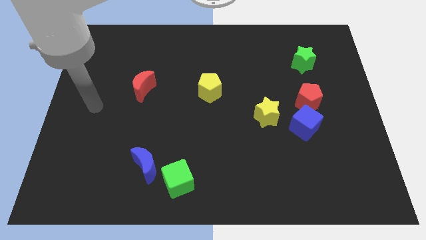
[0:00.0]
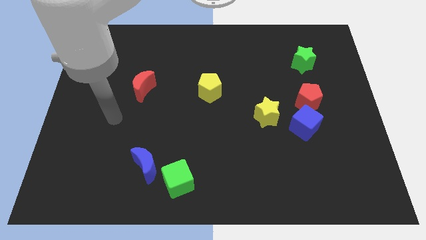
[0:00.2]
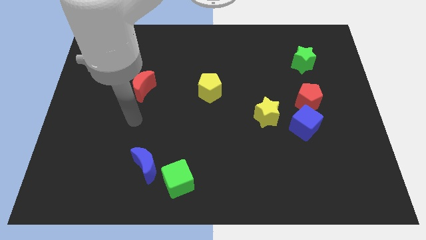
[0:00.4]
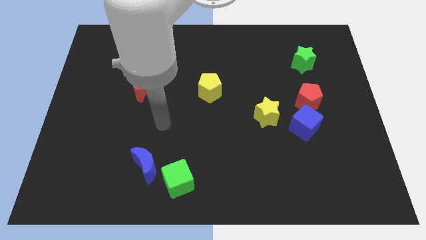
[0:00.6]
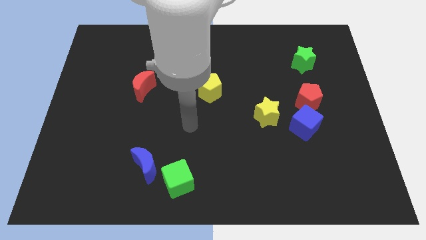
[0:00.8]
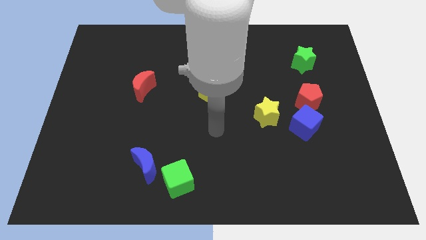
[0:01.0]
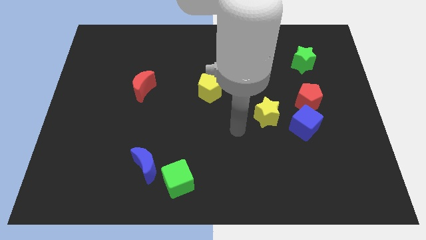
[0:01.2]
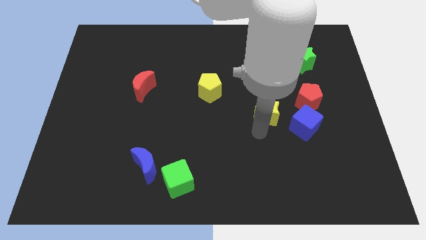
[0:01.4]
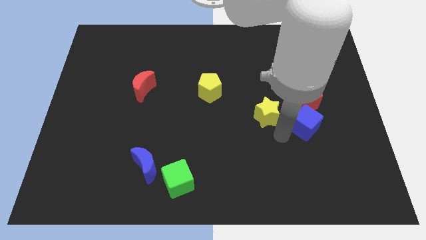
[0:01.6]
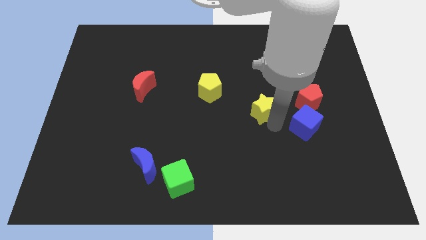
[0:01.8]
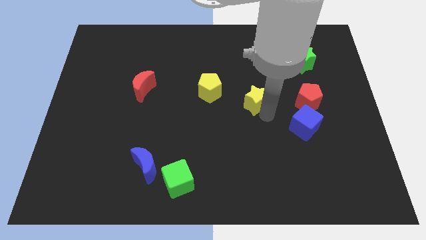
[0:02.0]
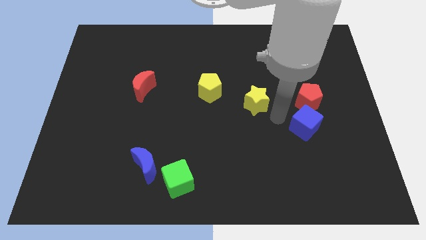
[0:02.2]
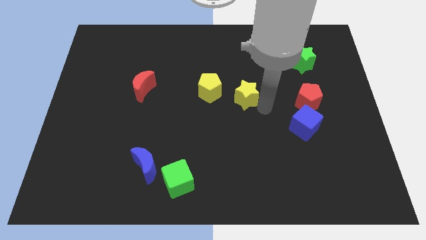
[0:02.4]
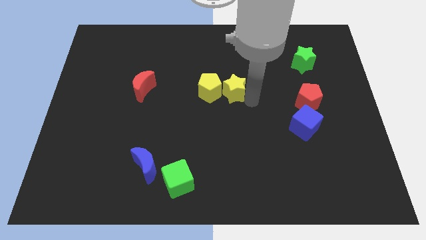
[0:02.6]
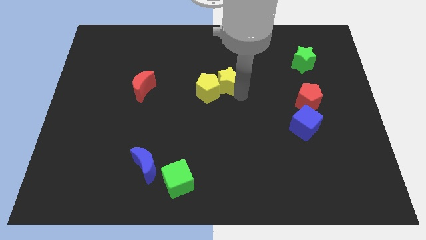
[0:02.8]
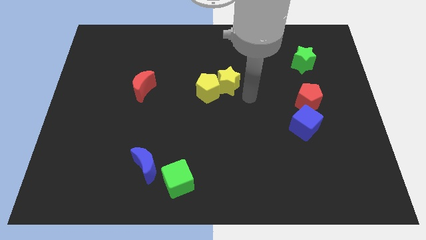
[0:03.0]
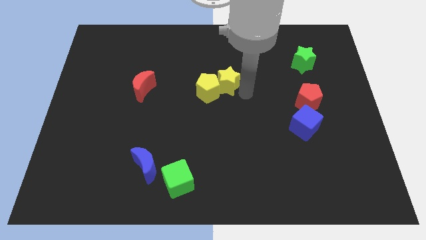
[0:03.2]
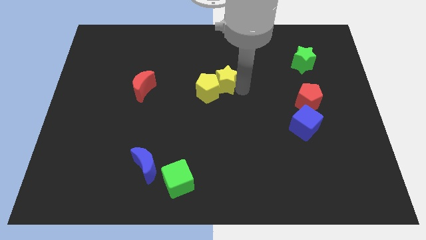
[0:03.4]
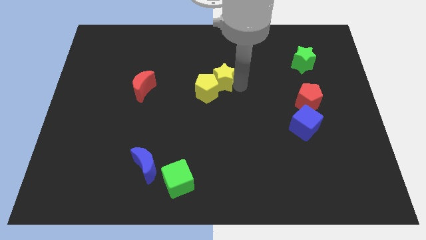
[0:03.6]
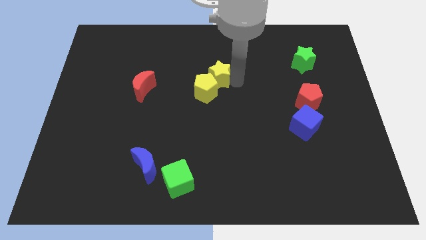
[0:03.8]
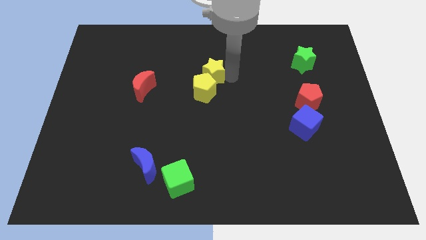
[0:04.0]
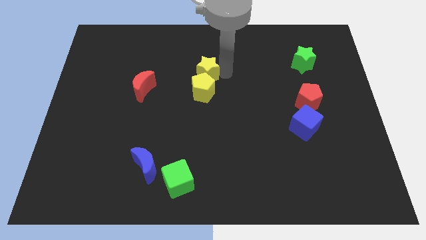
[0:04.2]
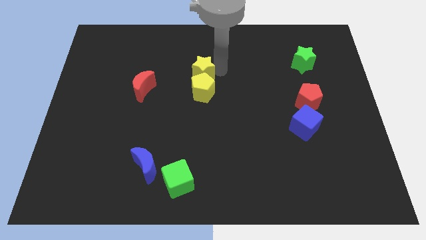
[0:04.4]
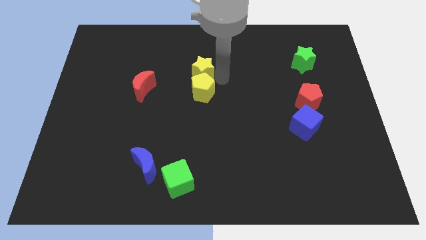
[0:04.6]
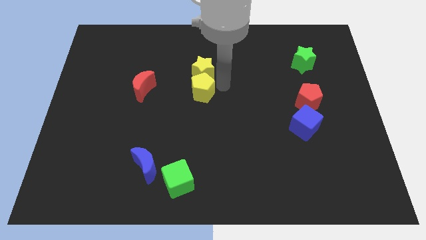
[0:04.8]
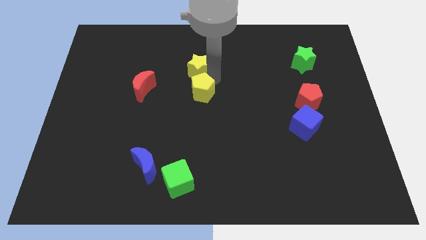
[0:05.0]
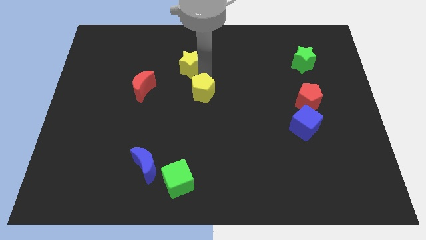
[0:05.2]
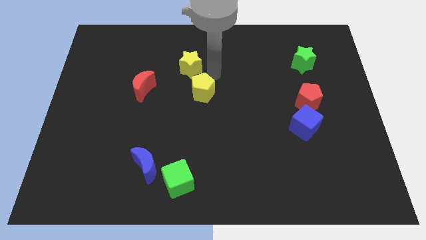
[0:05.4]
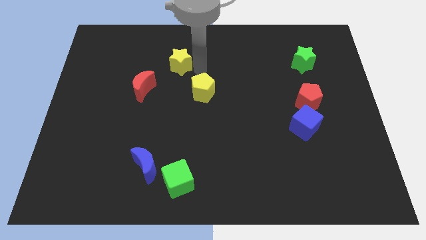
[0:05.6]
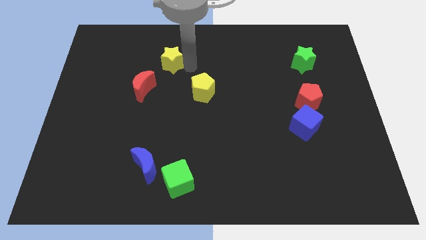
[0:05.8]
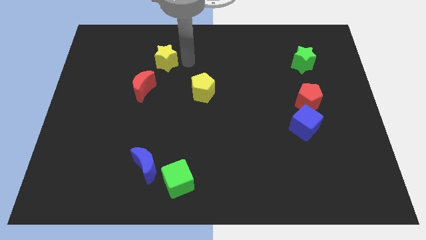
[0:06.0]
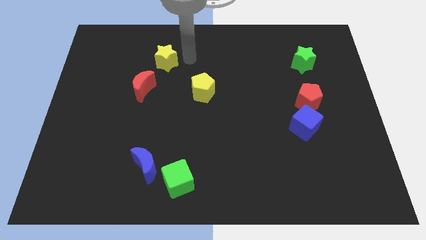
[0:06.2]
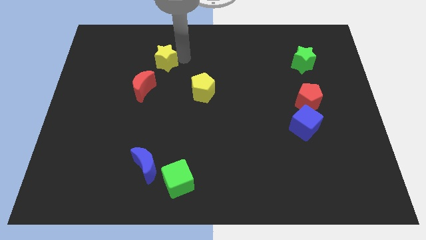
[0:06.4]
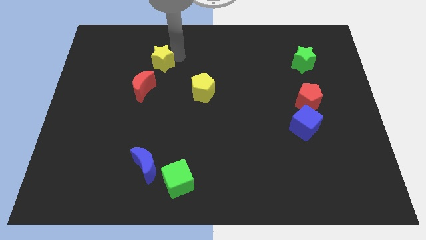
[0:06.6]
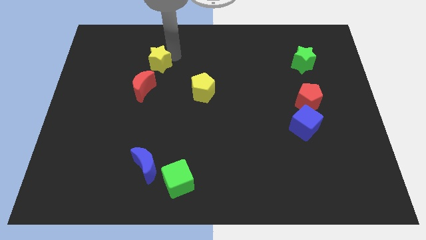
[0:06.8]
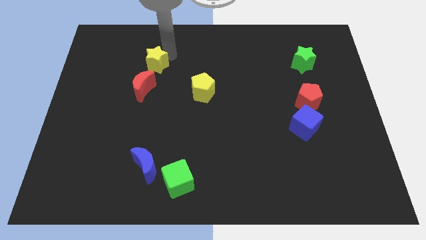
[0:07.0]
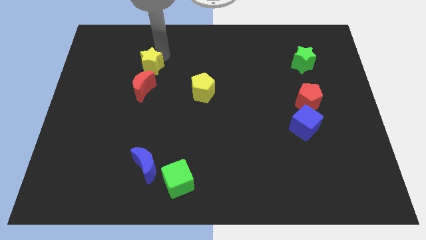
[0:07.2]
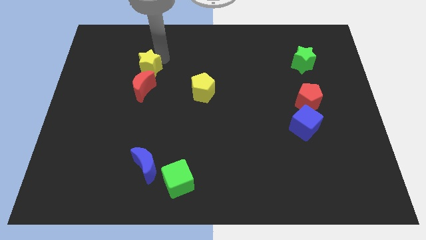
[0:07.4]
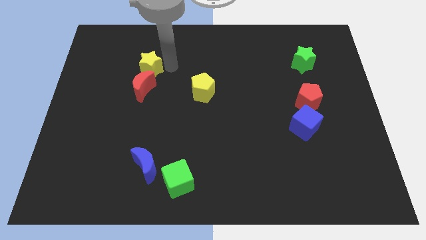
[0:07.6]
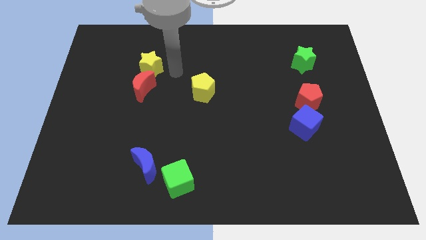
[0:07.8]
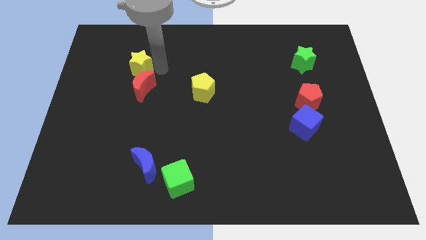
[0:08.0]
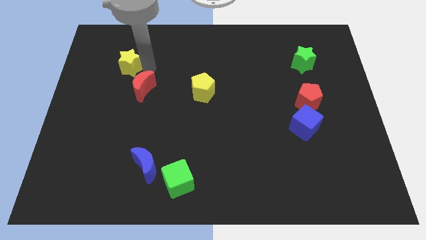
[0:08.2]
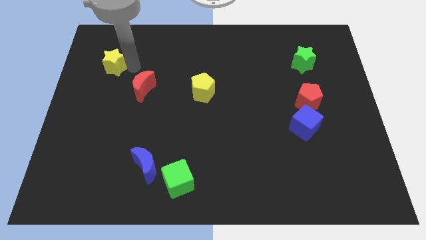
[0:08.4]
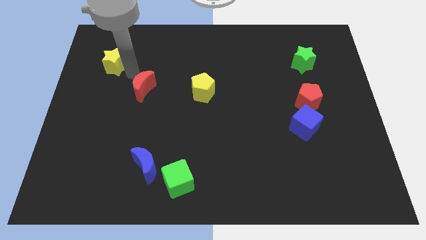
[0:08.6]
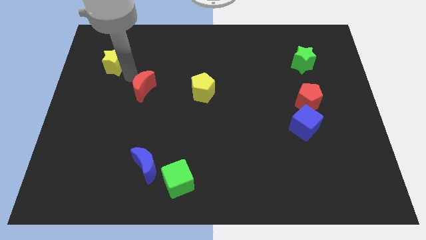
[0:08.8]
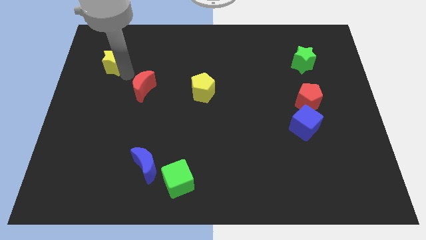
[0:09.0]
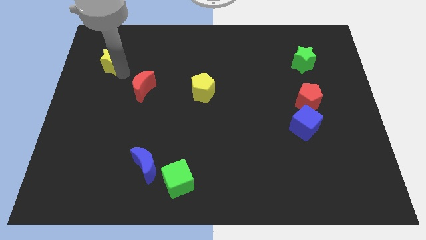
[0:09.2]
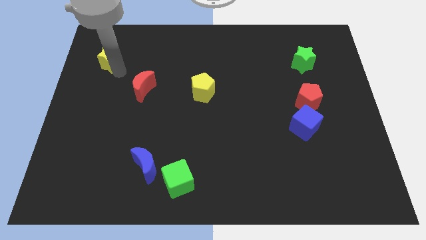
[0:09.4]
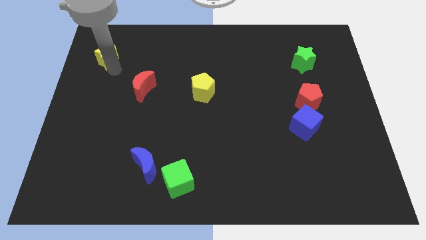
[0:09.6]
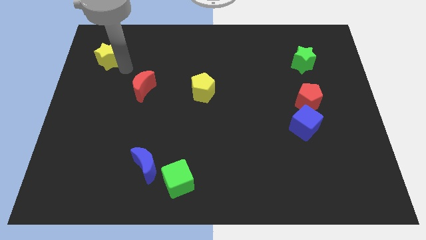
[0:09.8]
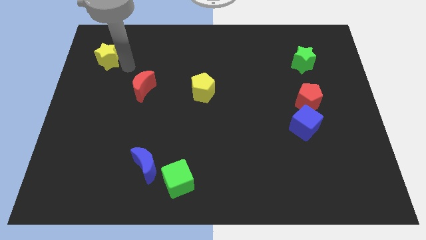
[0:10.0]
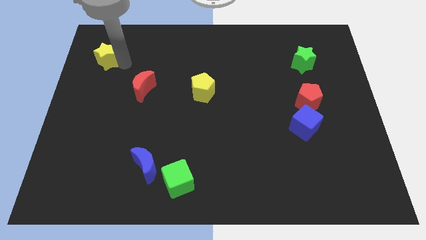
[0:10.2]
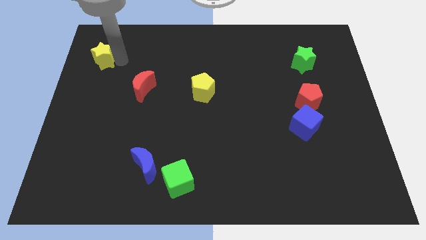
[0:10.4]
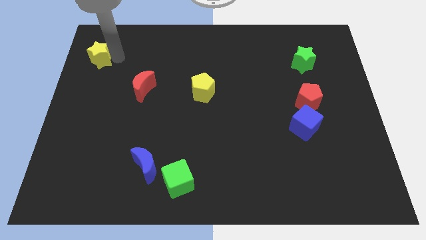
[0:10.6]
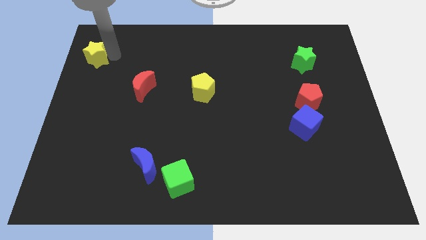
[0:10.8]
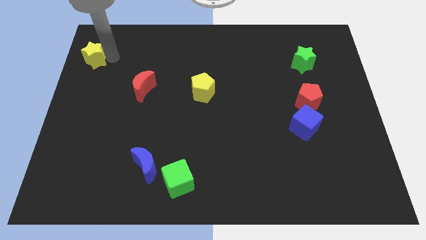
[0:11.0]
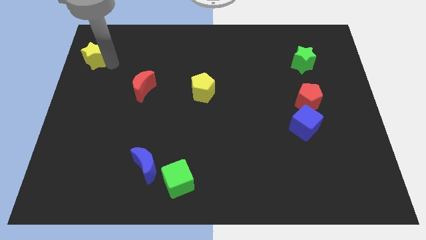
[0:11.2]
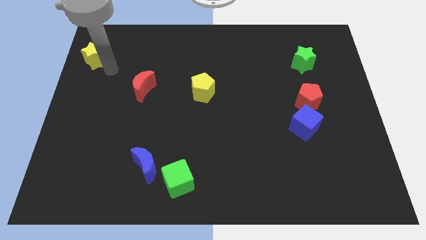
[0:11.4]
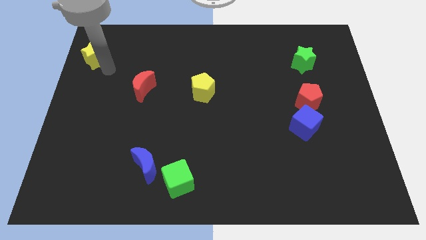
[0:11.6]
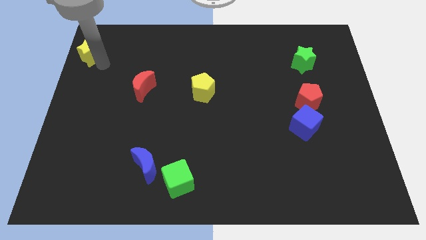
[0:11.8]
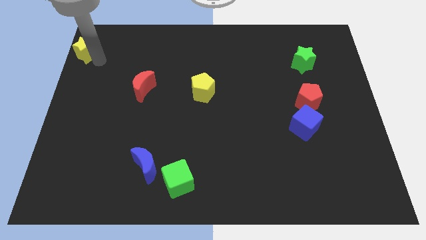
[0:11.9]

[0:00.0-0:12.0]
move the yellow star to the top left of the board

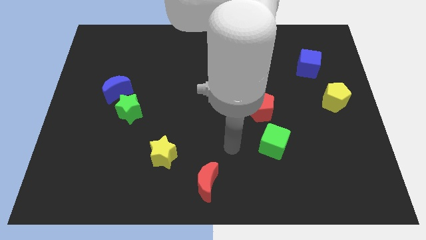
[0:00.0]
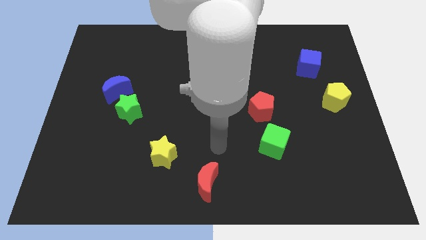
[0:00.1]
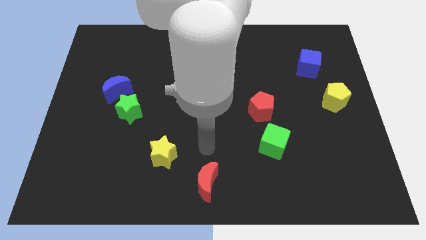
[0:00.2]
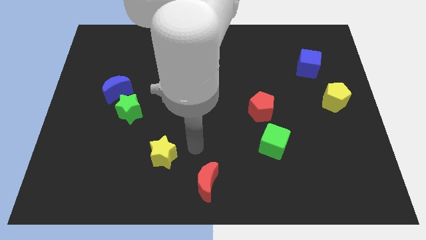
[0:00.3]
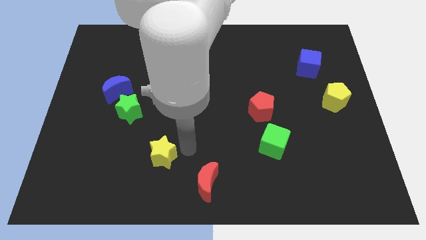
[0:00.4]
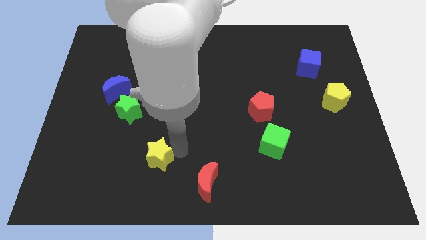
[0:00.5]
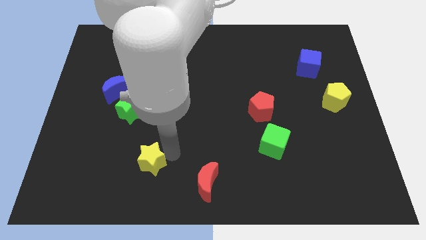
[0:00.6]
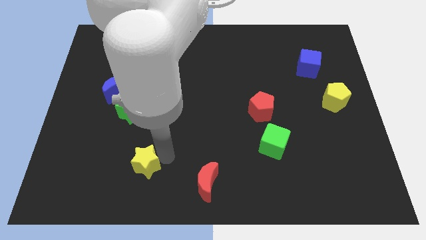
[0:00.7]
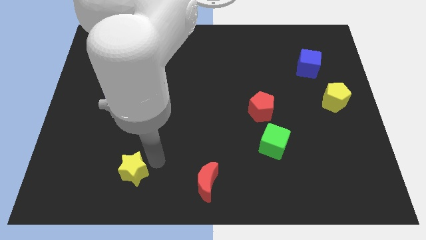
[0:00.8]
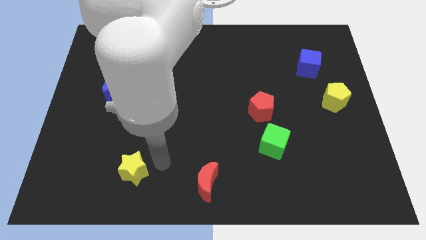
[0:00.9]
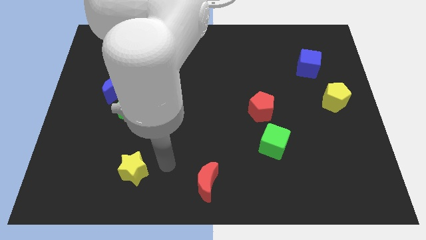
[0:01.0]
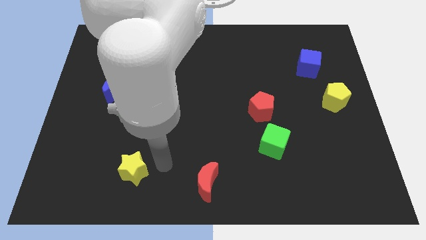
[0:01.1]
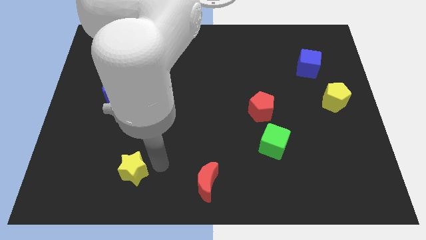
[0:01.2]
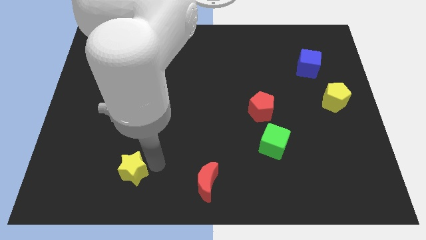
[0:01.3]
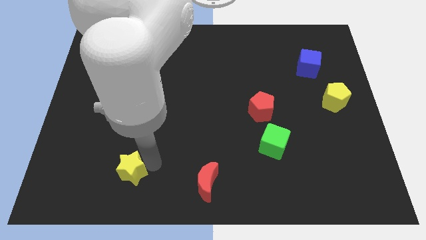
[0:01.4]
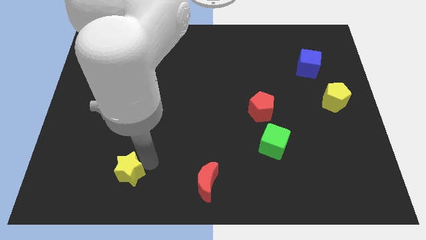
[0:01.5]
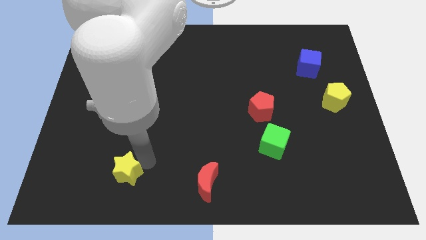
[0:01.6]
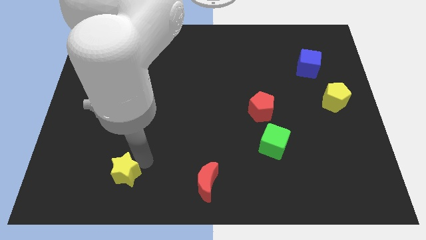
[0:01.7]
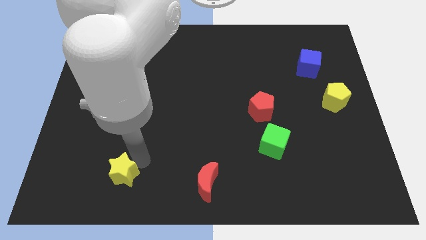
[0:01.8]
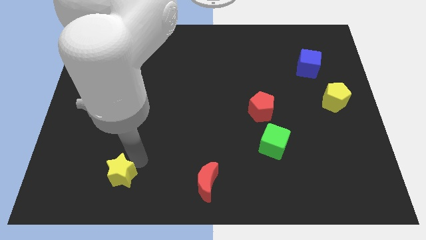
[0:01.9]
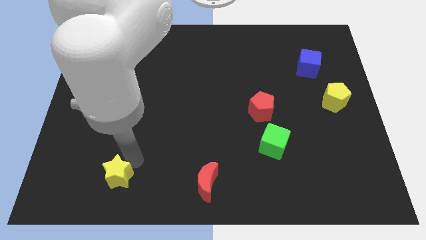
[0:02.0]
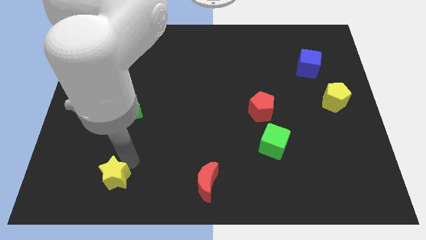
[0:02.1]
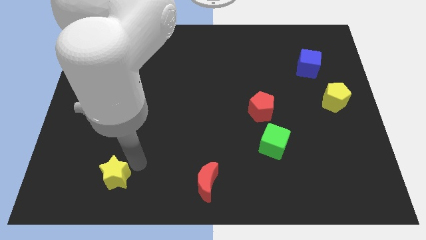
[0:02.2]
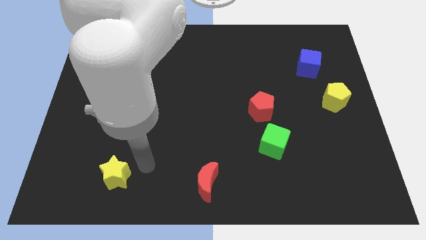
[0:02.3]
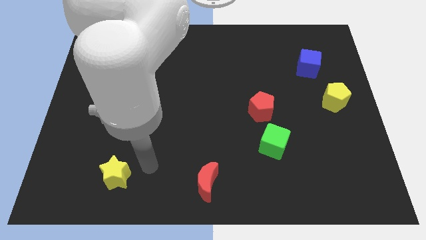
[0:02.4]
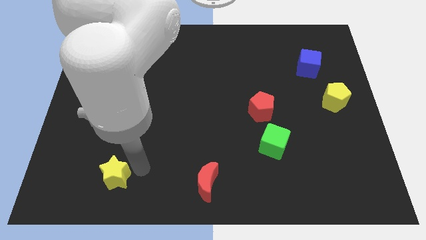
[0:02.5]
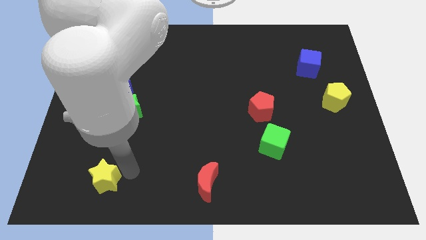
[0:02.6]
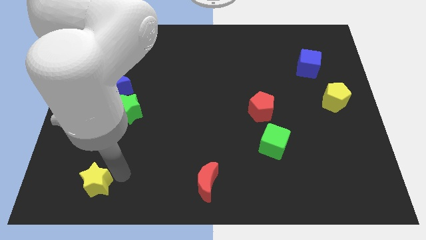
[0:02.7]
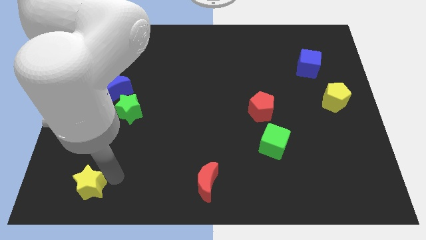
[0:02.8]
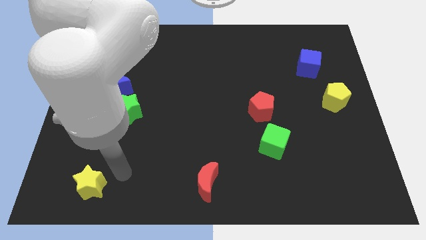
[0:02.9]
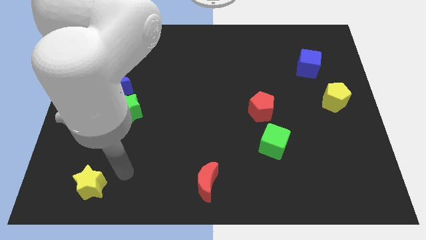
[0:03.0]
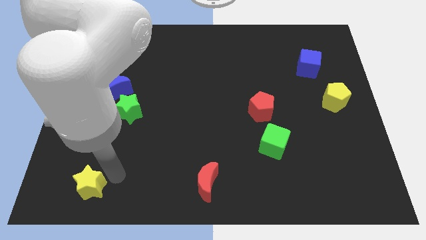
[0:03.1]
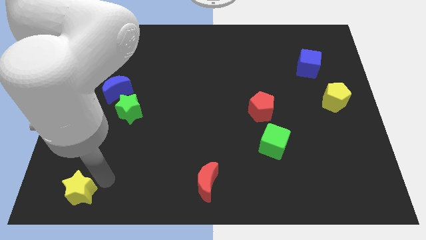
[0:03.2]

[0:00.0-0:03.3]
push the yellow star to the bottom left corner
